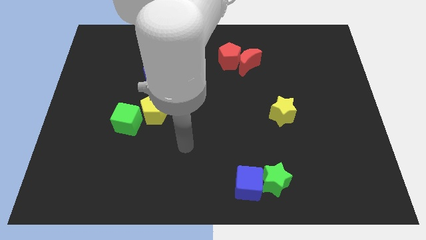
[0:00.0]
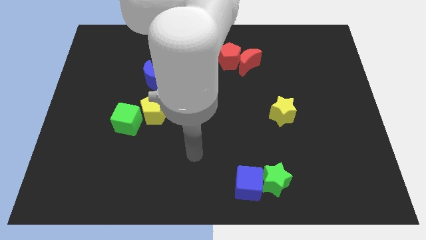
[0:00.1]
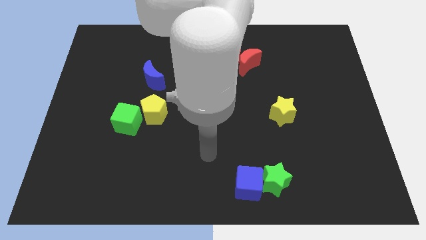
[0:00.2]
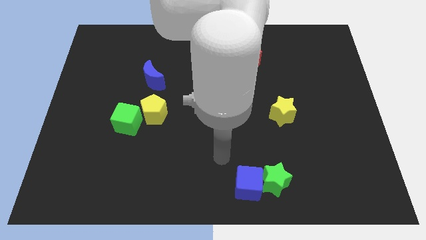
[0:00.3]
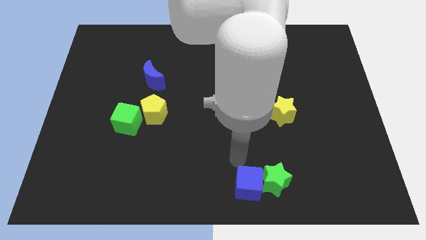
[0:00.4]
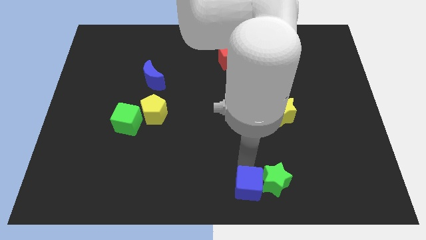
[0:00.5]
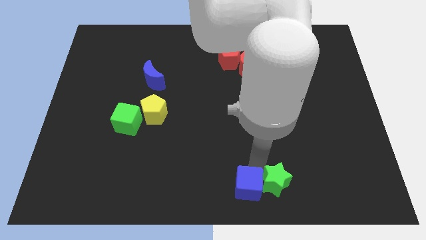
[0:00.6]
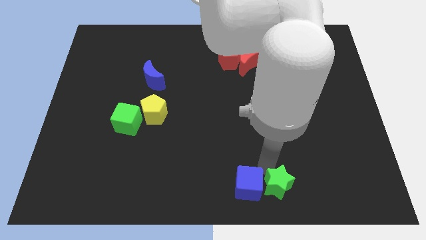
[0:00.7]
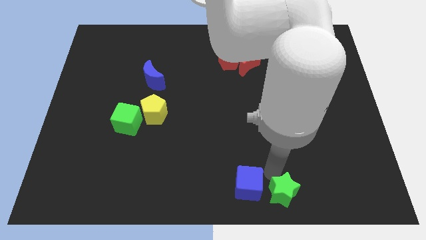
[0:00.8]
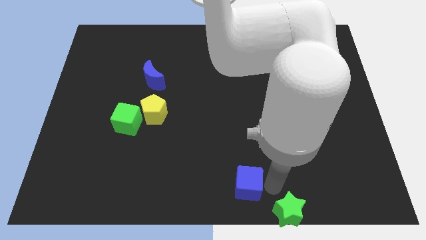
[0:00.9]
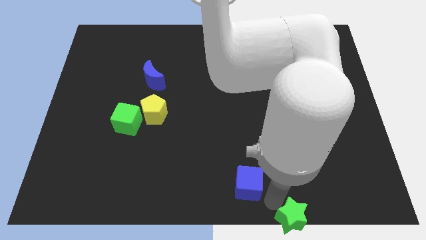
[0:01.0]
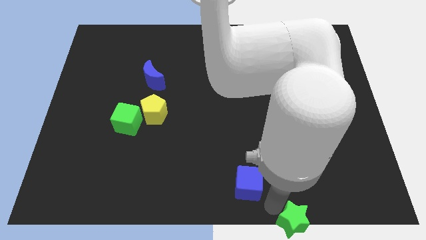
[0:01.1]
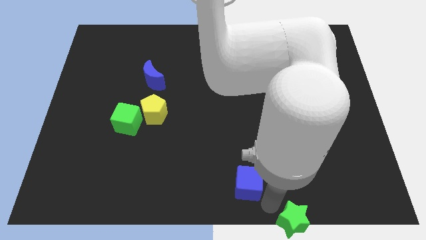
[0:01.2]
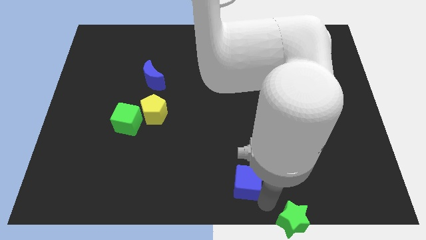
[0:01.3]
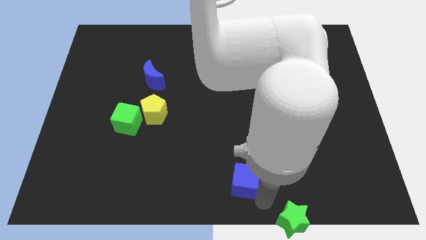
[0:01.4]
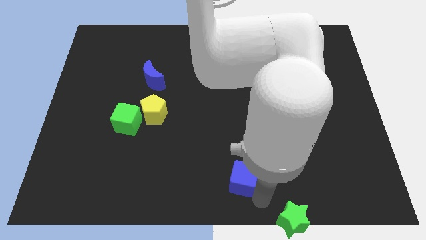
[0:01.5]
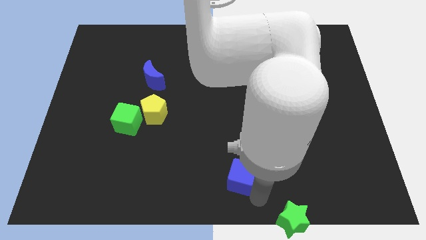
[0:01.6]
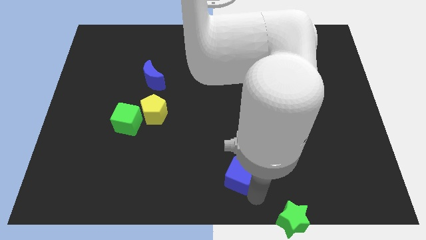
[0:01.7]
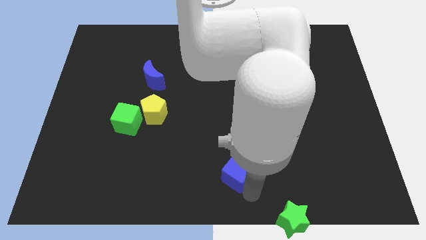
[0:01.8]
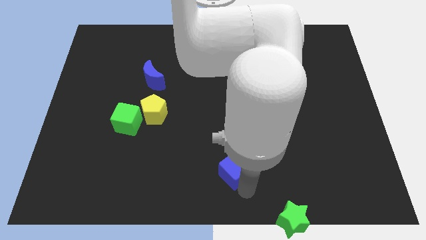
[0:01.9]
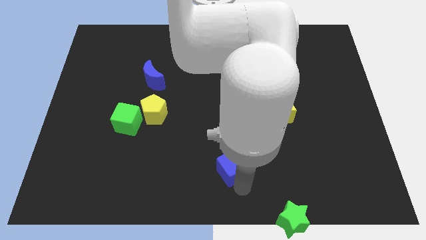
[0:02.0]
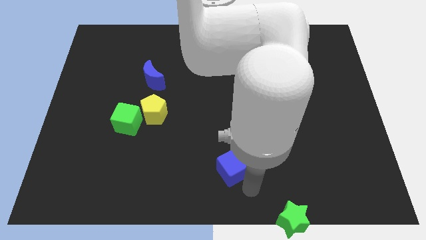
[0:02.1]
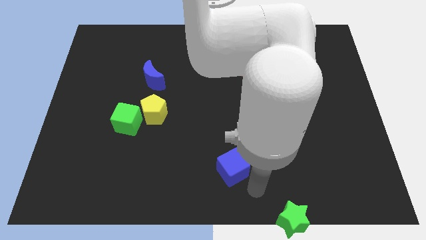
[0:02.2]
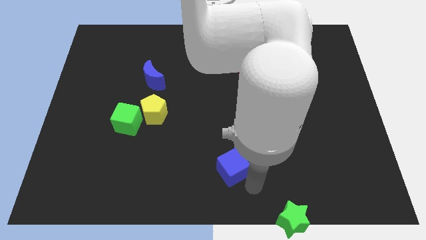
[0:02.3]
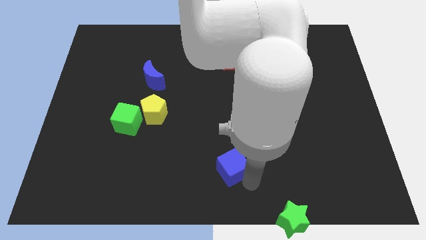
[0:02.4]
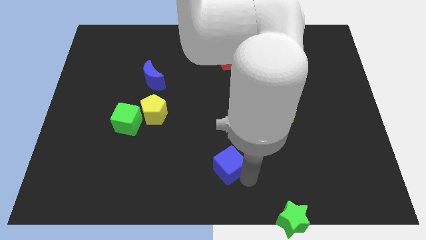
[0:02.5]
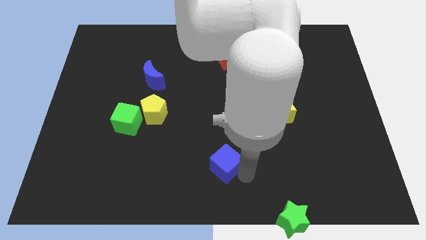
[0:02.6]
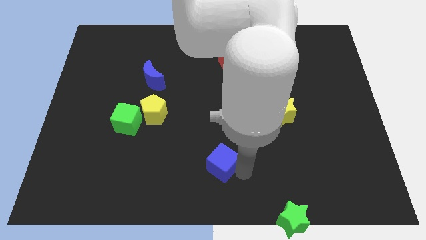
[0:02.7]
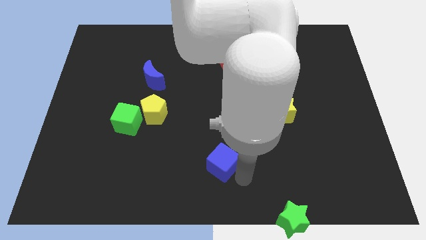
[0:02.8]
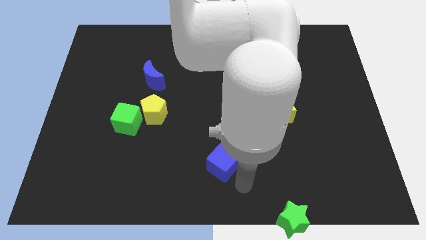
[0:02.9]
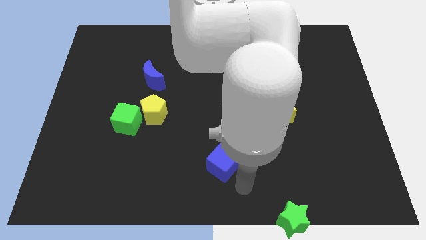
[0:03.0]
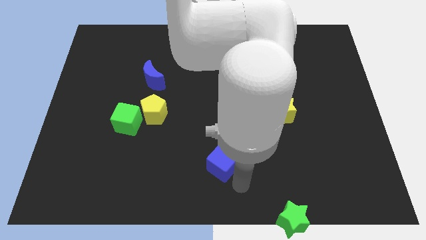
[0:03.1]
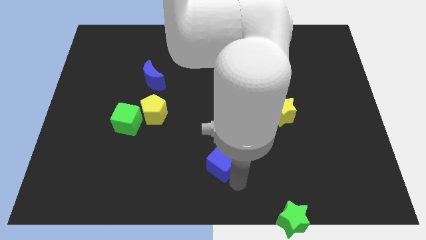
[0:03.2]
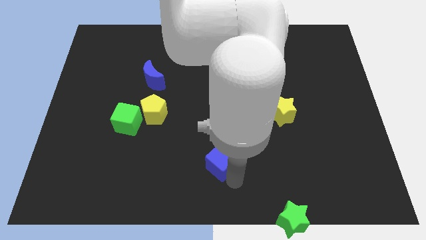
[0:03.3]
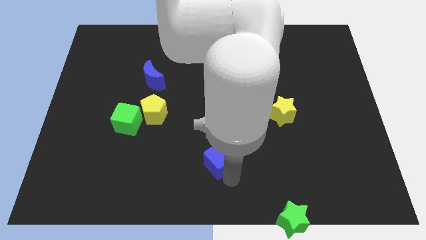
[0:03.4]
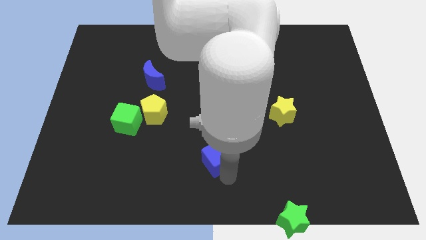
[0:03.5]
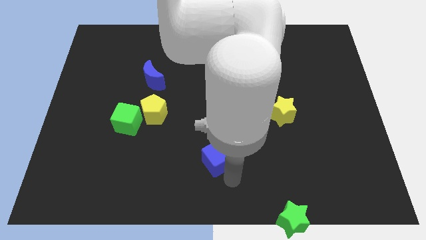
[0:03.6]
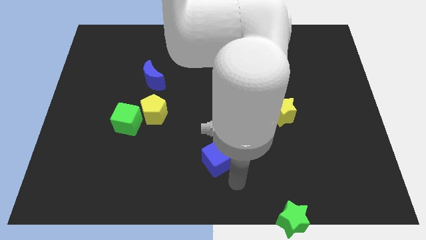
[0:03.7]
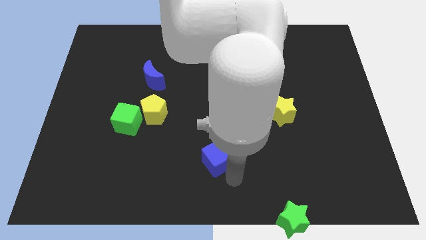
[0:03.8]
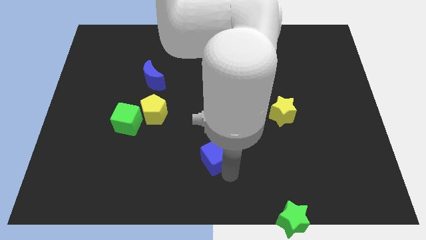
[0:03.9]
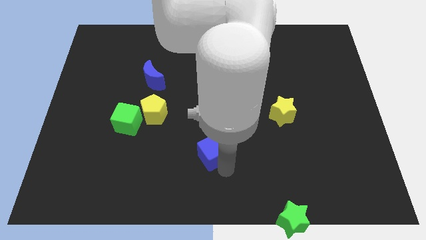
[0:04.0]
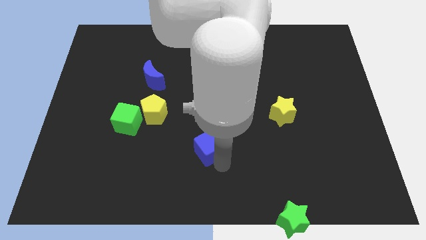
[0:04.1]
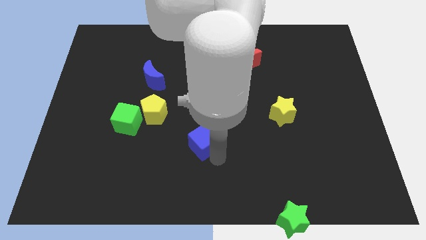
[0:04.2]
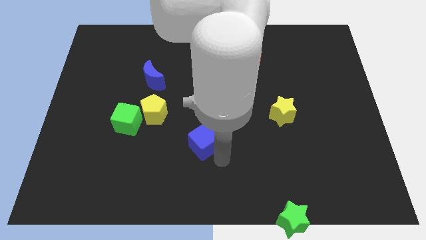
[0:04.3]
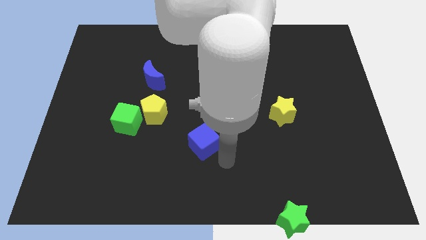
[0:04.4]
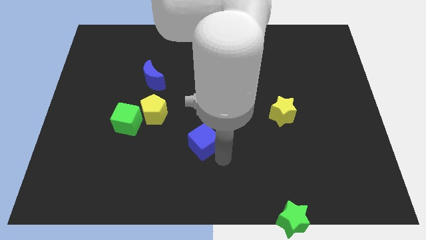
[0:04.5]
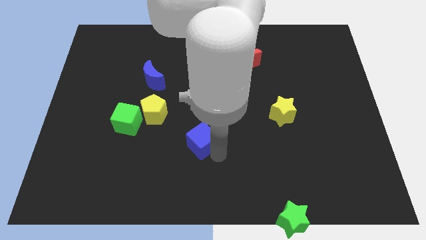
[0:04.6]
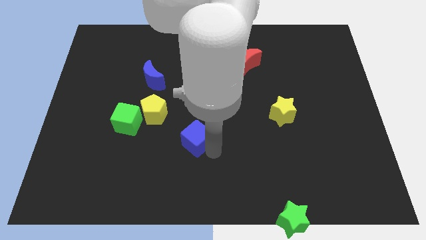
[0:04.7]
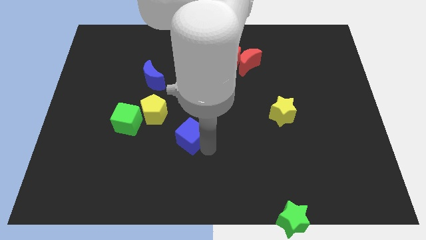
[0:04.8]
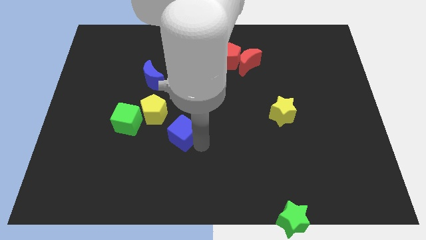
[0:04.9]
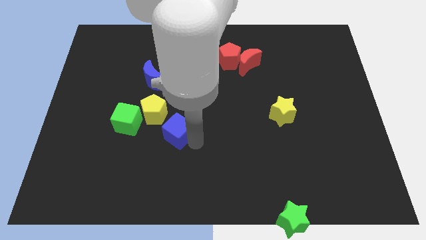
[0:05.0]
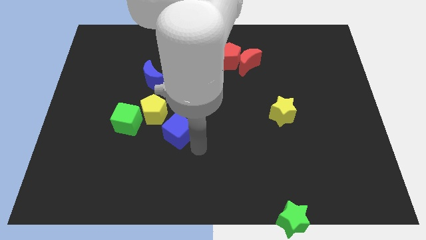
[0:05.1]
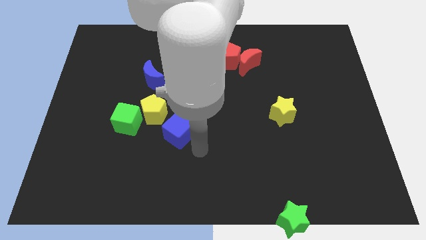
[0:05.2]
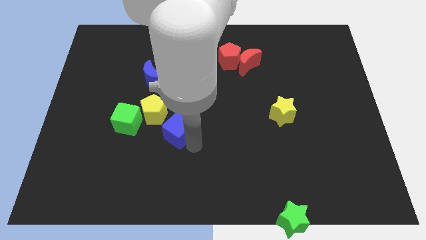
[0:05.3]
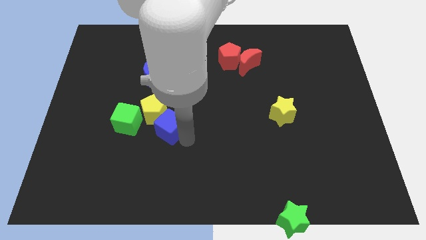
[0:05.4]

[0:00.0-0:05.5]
put the blue cube next to the yellow pentagon

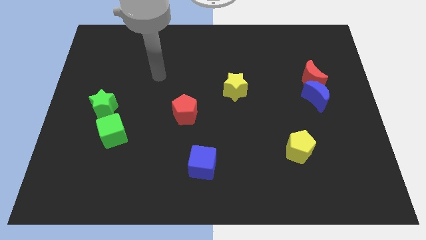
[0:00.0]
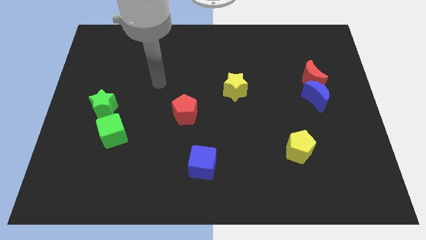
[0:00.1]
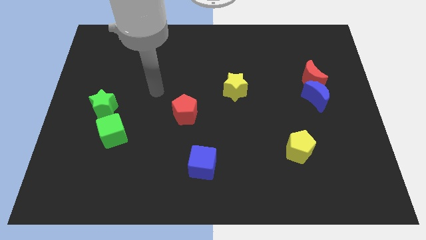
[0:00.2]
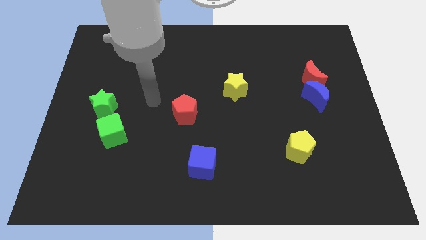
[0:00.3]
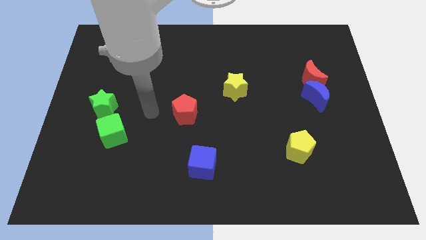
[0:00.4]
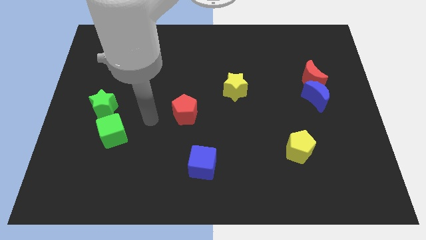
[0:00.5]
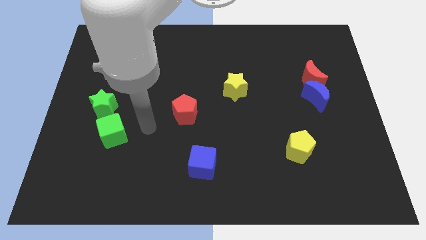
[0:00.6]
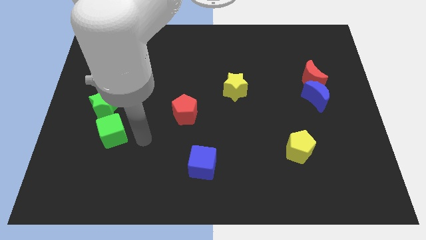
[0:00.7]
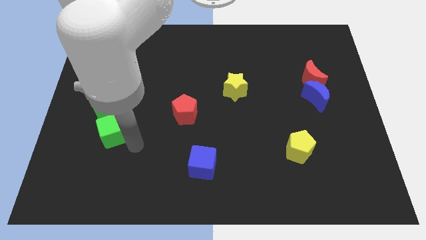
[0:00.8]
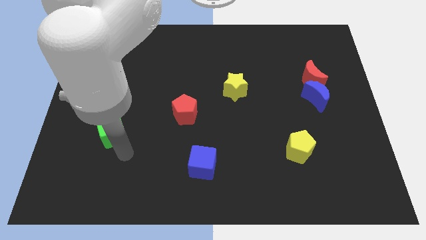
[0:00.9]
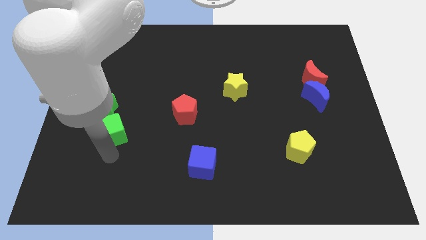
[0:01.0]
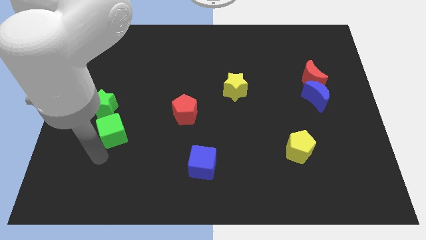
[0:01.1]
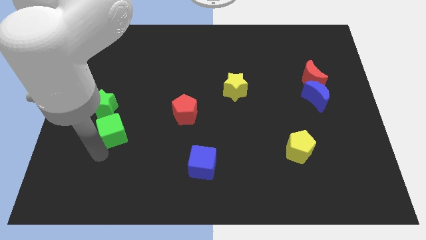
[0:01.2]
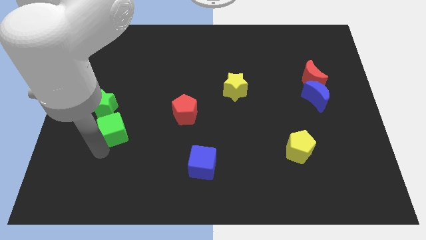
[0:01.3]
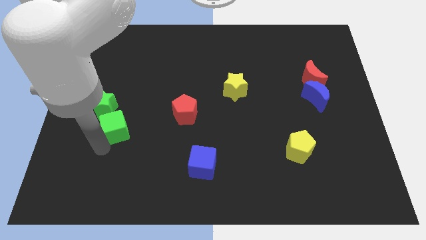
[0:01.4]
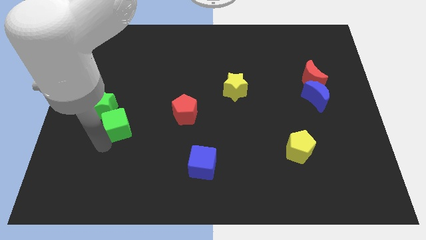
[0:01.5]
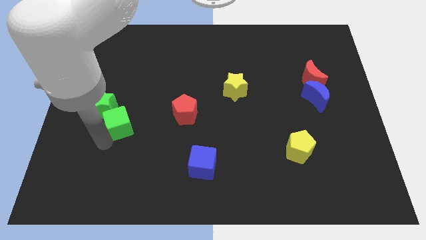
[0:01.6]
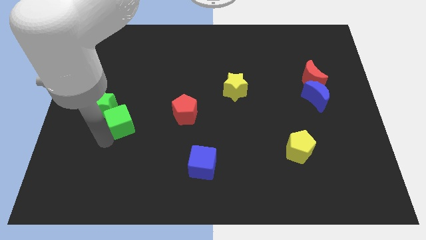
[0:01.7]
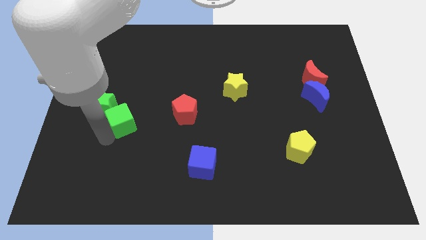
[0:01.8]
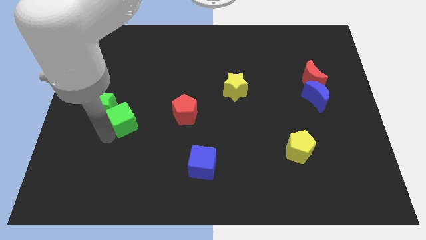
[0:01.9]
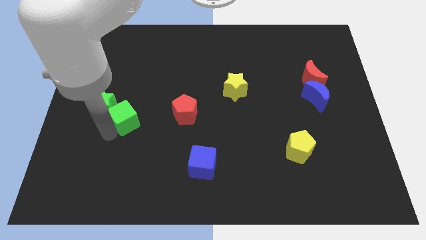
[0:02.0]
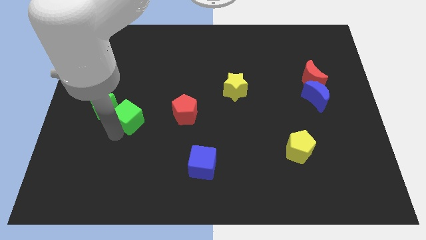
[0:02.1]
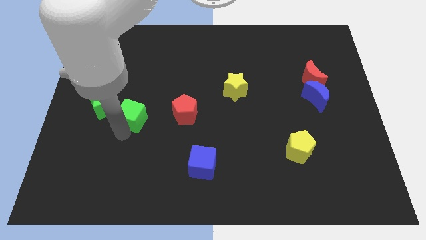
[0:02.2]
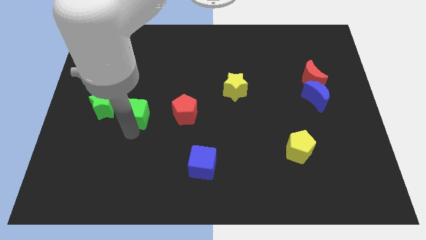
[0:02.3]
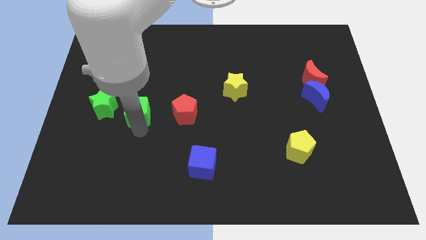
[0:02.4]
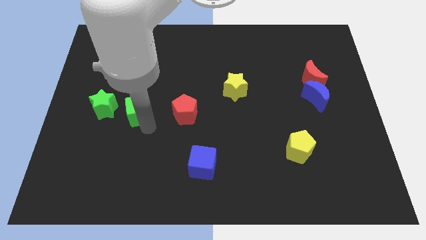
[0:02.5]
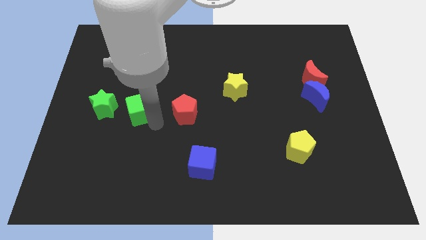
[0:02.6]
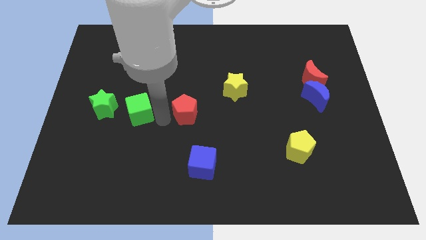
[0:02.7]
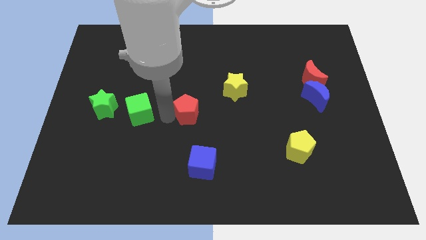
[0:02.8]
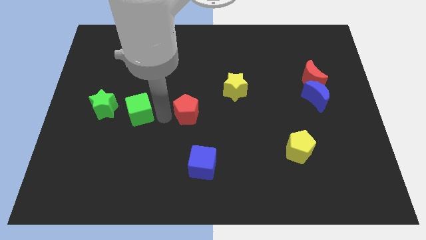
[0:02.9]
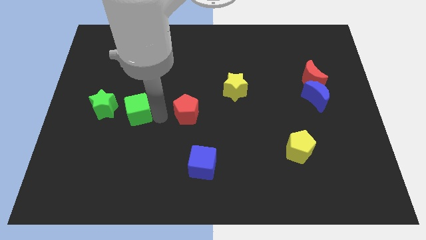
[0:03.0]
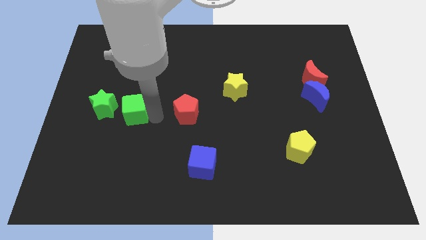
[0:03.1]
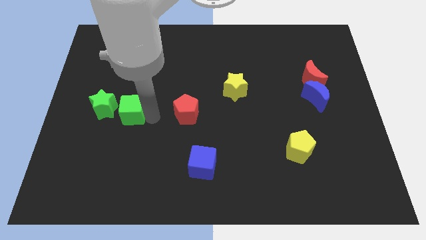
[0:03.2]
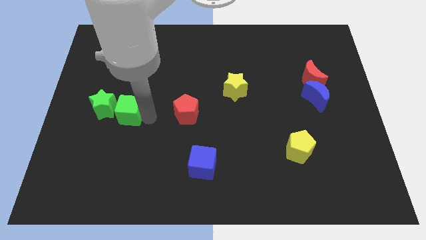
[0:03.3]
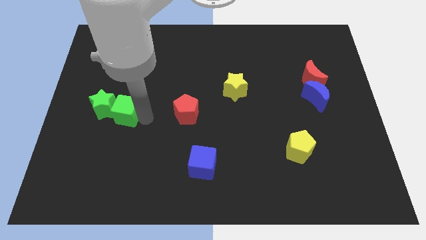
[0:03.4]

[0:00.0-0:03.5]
push the green cube towards the green star
